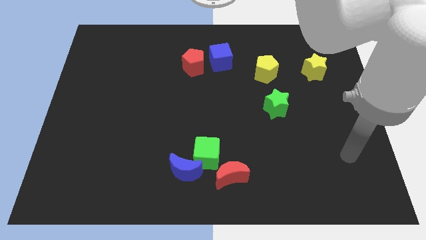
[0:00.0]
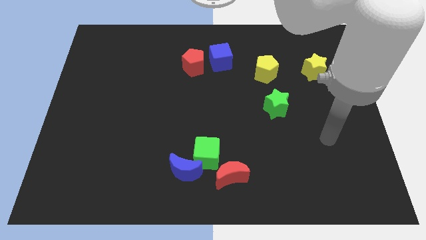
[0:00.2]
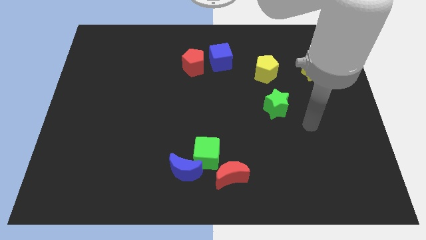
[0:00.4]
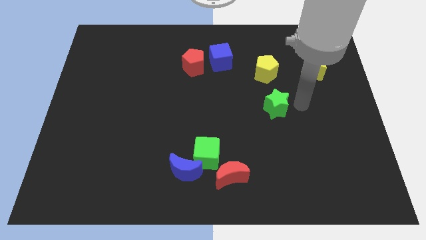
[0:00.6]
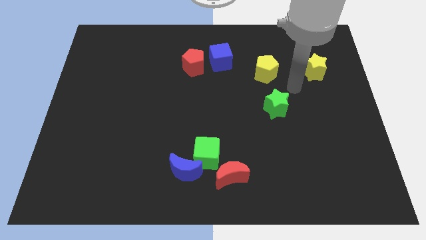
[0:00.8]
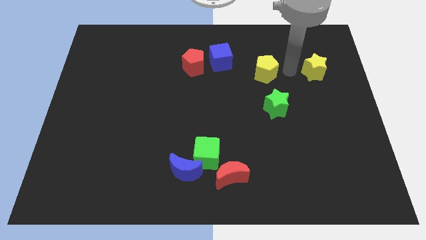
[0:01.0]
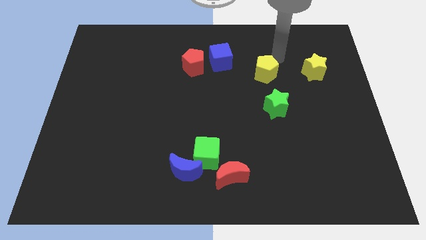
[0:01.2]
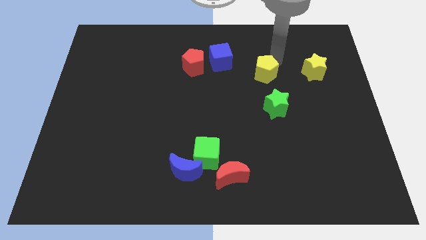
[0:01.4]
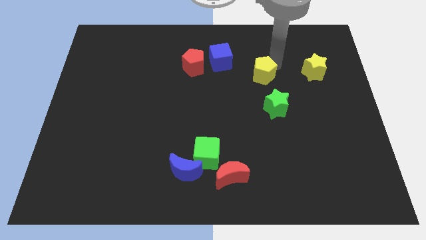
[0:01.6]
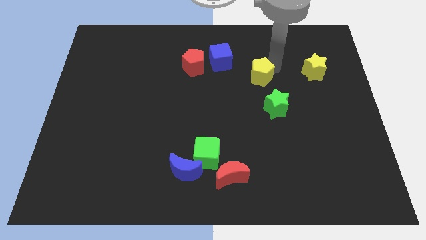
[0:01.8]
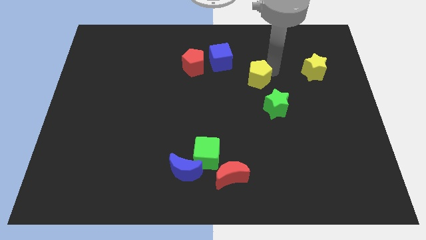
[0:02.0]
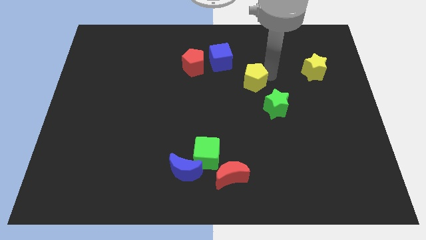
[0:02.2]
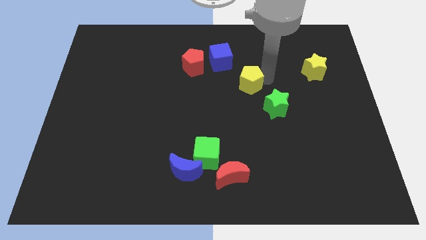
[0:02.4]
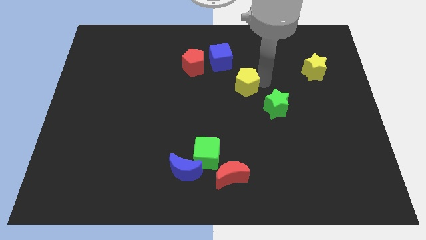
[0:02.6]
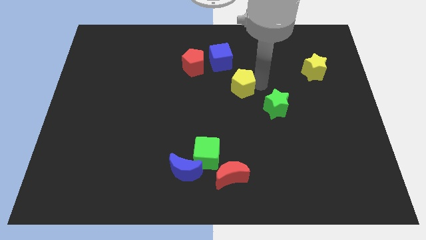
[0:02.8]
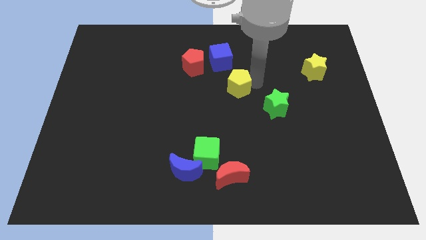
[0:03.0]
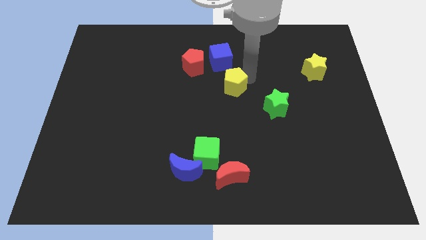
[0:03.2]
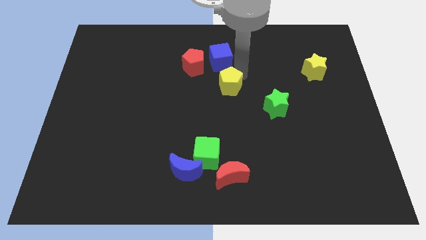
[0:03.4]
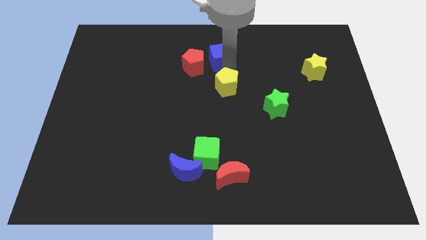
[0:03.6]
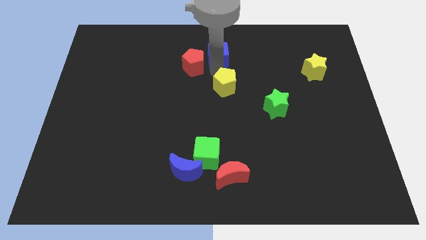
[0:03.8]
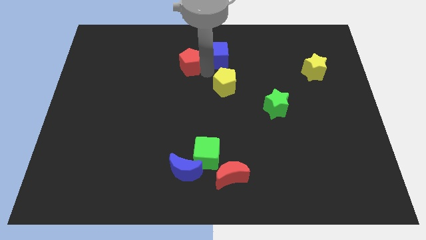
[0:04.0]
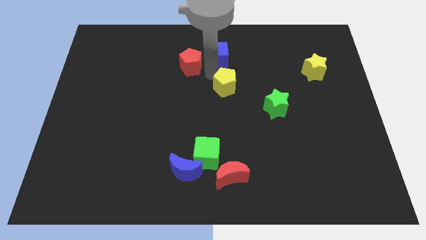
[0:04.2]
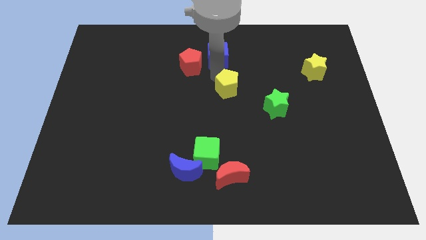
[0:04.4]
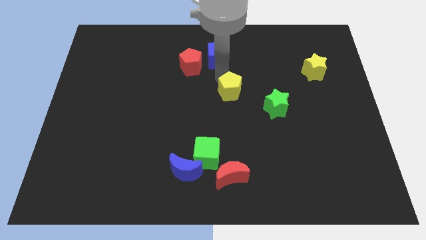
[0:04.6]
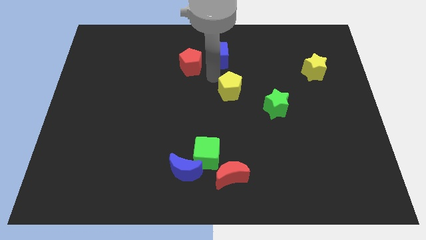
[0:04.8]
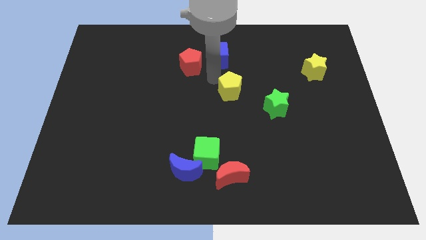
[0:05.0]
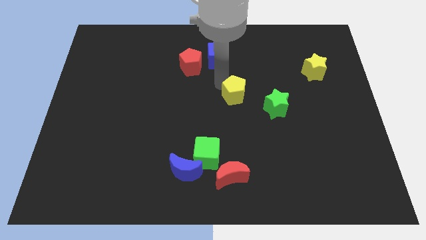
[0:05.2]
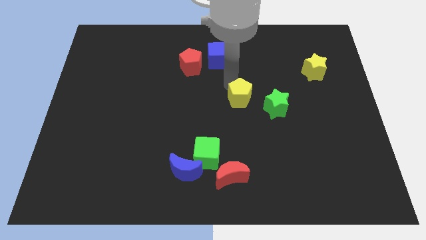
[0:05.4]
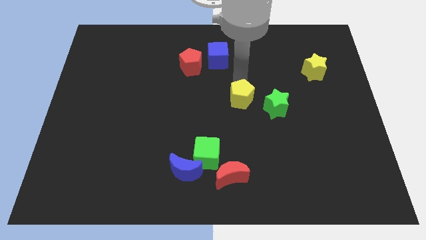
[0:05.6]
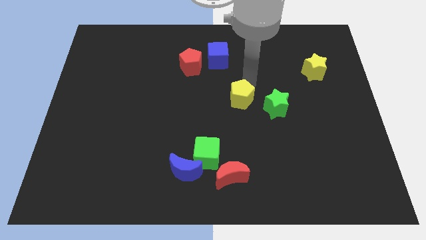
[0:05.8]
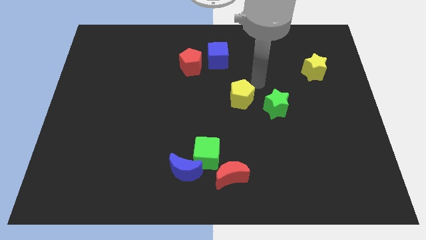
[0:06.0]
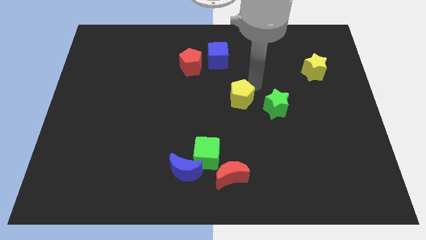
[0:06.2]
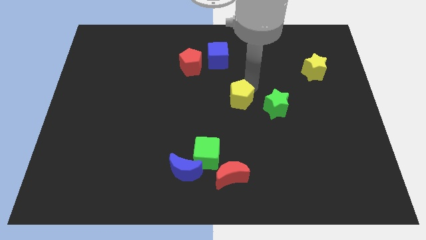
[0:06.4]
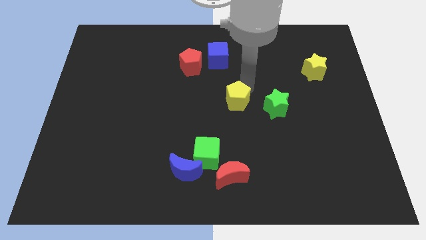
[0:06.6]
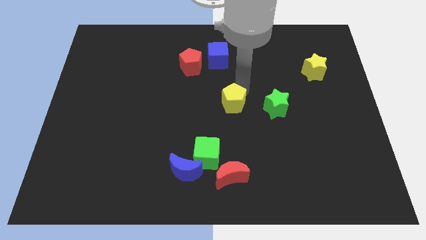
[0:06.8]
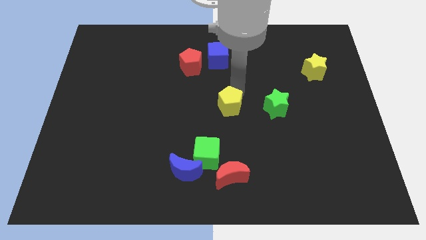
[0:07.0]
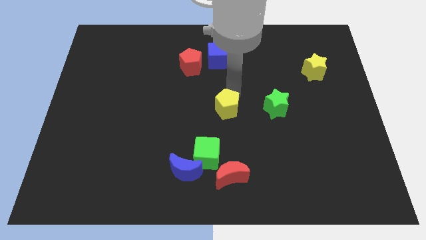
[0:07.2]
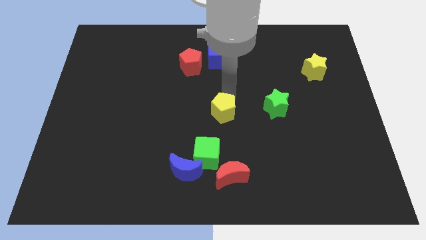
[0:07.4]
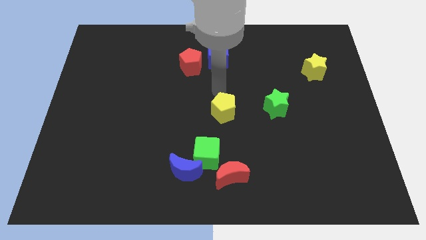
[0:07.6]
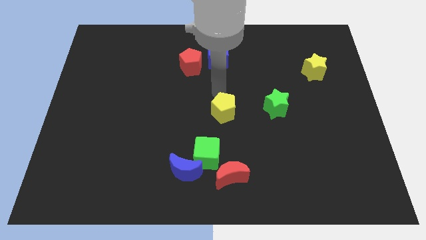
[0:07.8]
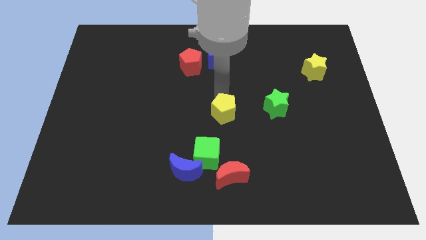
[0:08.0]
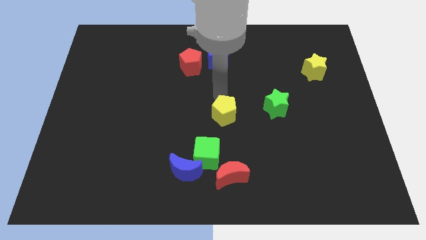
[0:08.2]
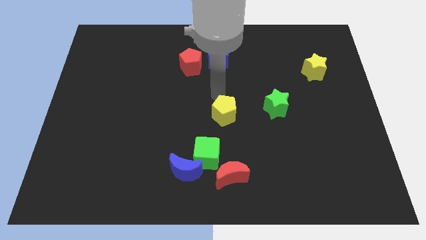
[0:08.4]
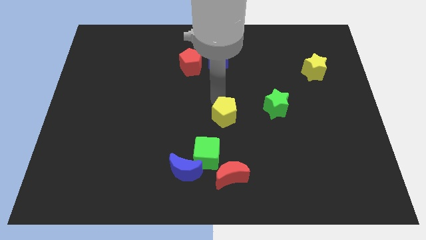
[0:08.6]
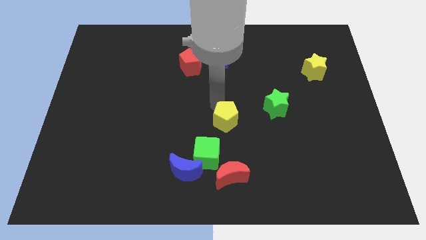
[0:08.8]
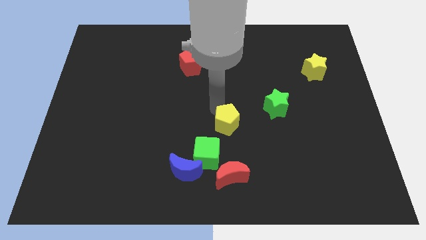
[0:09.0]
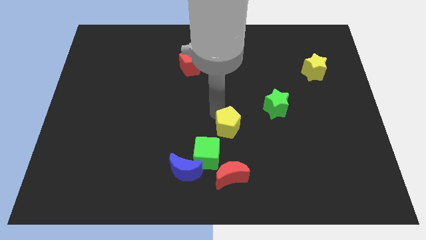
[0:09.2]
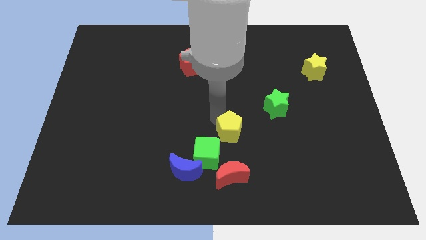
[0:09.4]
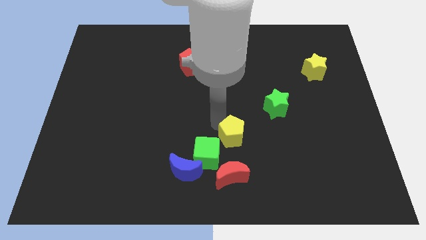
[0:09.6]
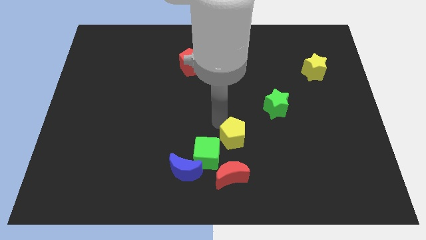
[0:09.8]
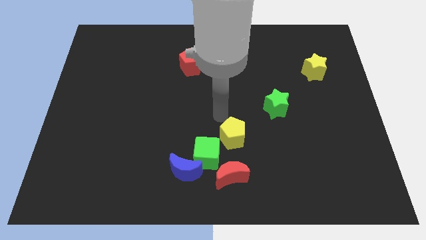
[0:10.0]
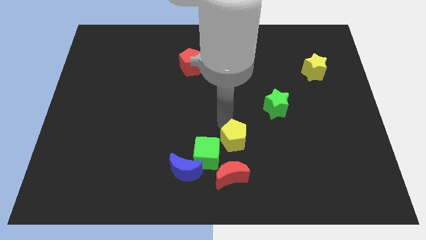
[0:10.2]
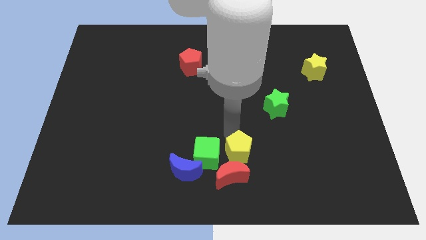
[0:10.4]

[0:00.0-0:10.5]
move the yellow pentagon to the right of the blue moon

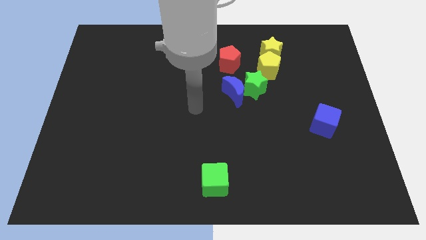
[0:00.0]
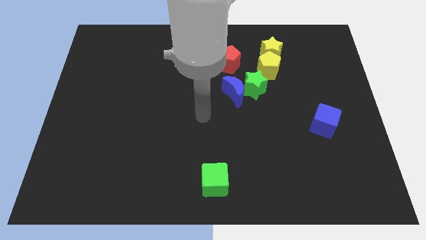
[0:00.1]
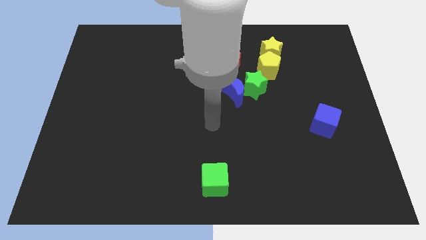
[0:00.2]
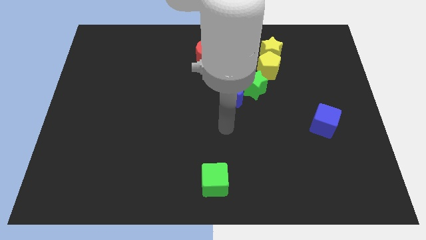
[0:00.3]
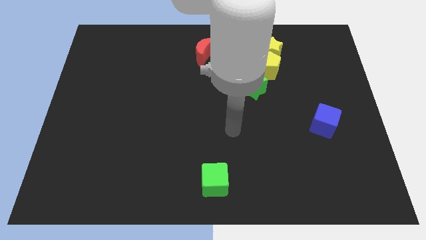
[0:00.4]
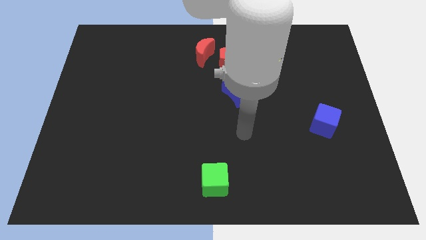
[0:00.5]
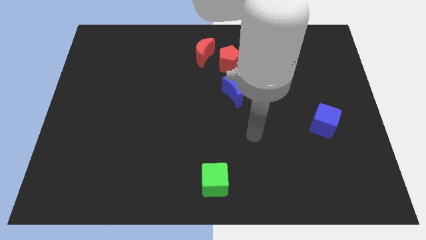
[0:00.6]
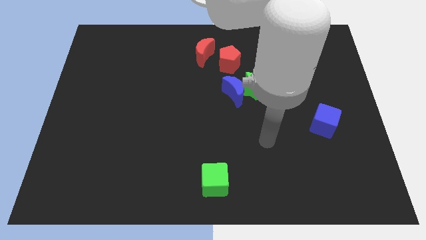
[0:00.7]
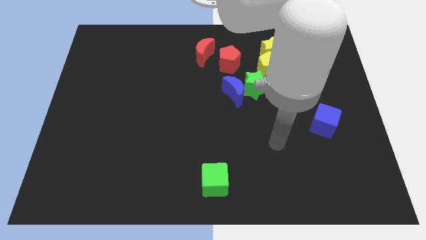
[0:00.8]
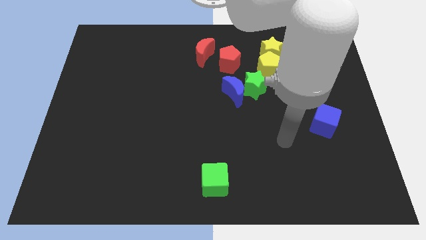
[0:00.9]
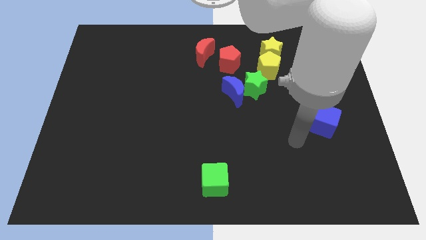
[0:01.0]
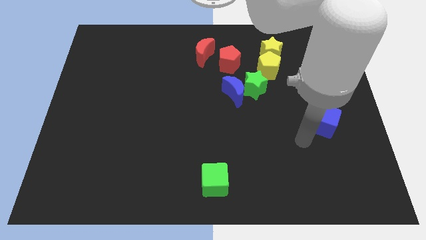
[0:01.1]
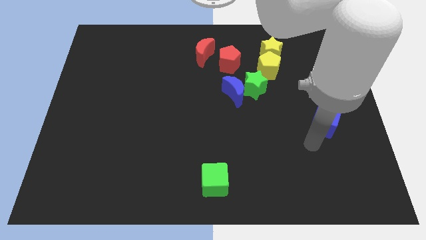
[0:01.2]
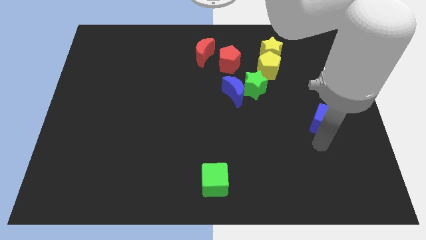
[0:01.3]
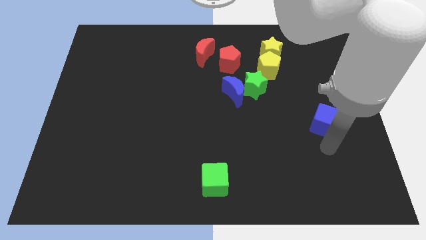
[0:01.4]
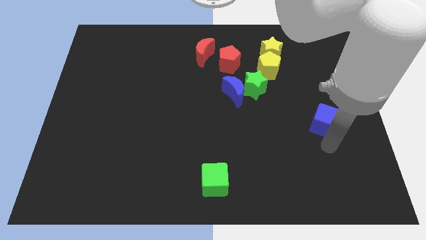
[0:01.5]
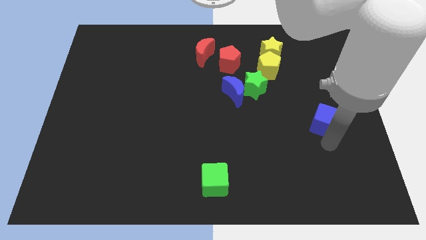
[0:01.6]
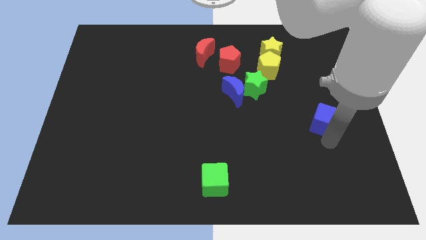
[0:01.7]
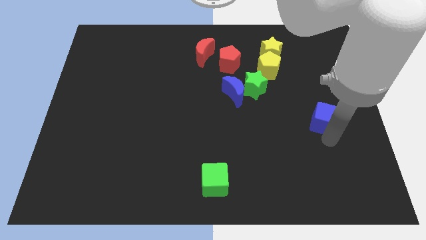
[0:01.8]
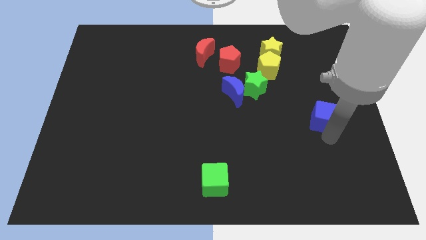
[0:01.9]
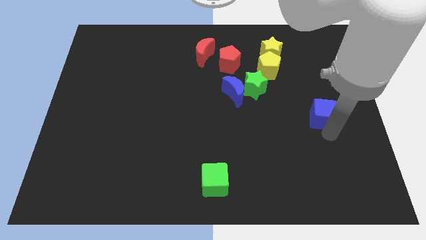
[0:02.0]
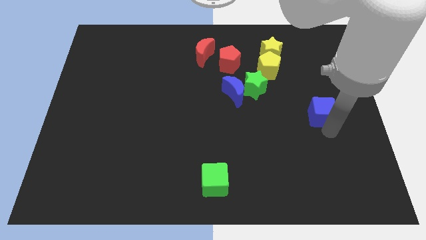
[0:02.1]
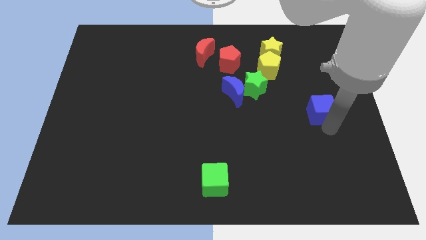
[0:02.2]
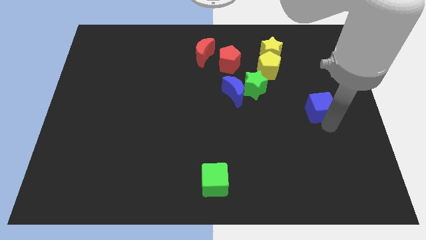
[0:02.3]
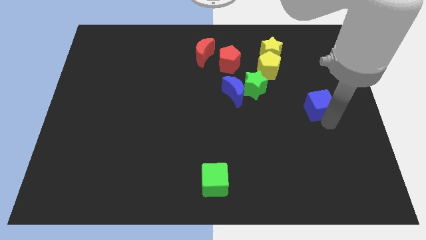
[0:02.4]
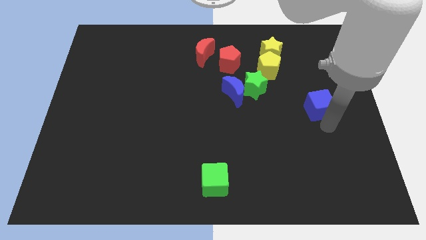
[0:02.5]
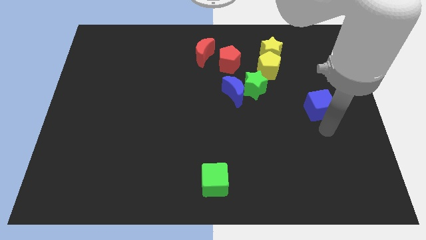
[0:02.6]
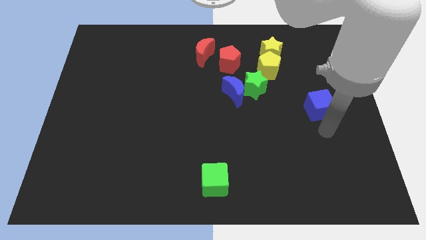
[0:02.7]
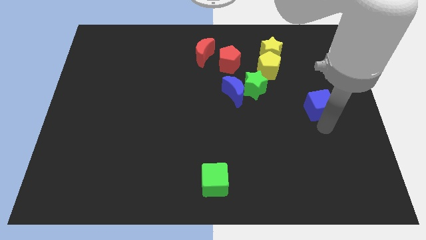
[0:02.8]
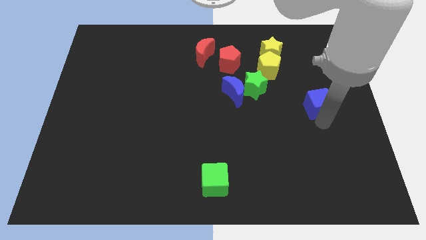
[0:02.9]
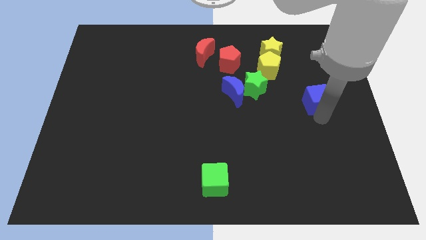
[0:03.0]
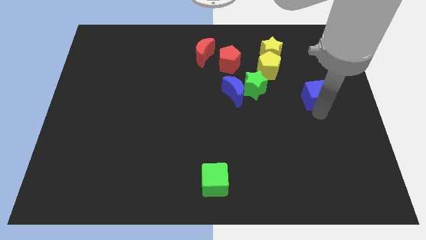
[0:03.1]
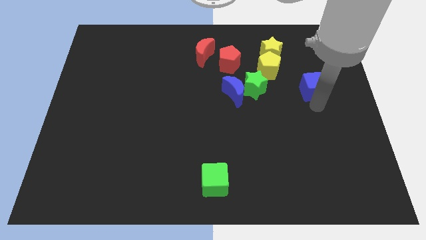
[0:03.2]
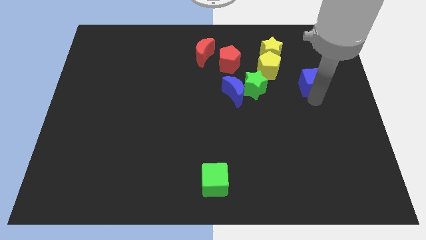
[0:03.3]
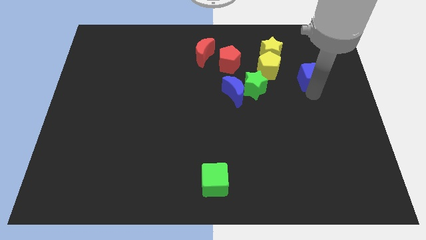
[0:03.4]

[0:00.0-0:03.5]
slide the blue cube to the right side of the yellow pentagon
